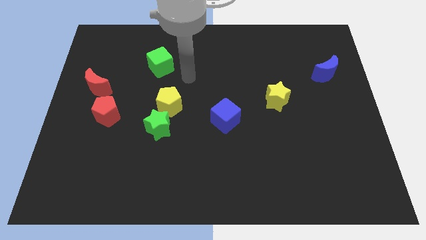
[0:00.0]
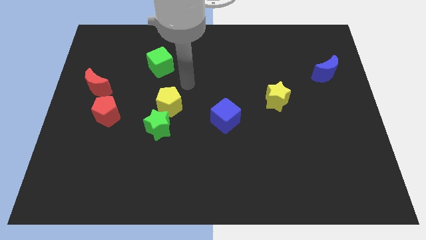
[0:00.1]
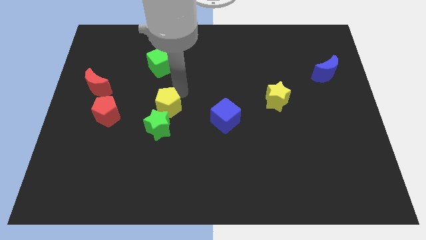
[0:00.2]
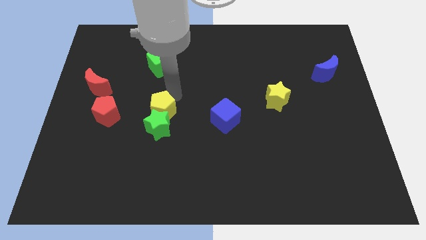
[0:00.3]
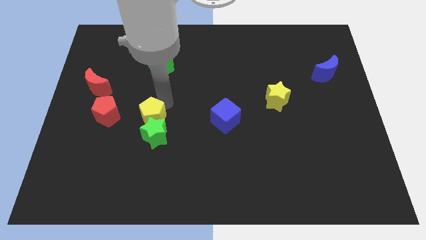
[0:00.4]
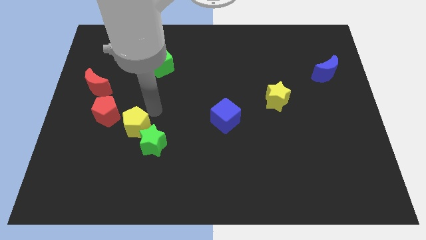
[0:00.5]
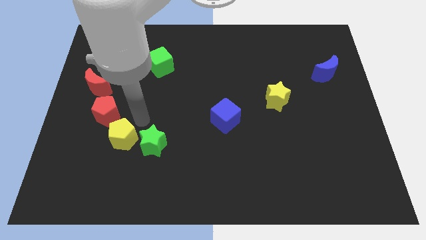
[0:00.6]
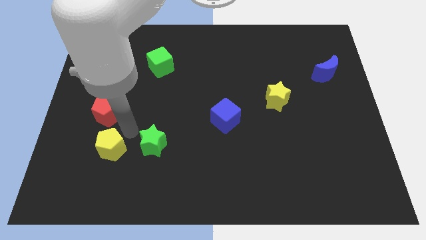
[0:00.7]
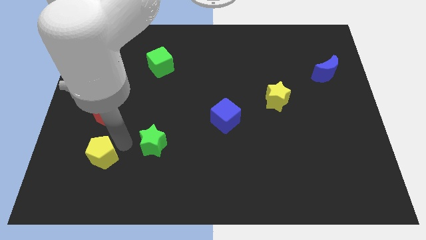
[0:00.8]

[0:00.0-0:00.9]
pull the green star apart from the yellow pentagon

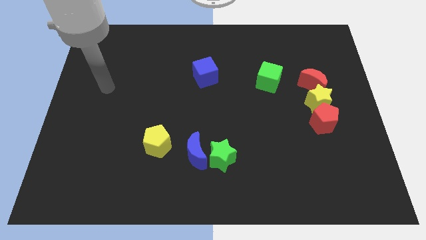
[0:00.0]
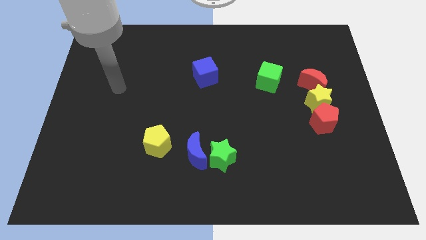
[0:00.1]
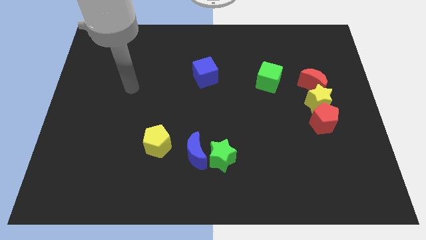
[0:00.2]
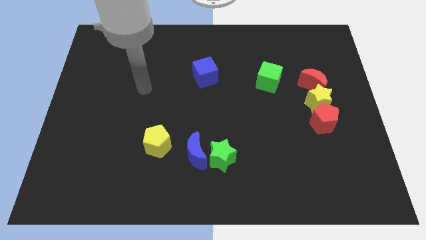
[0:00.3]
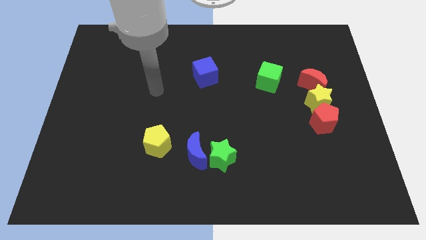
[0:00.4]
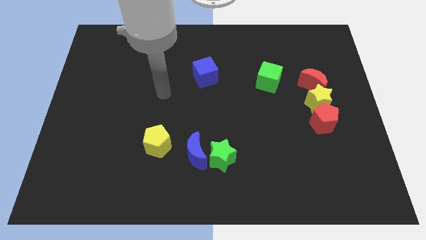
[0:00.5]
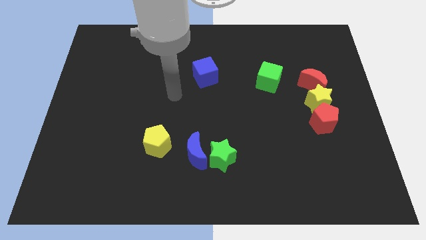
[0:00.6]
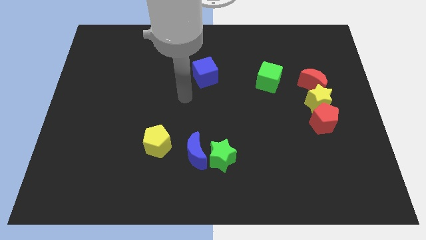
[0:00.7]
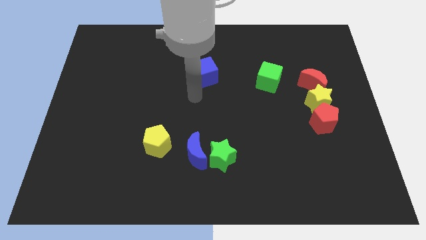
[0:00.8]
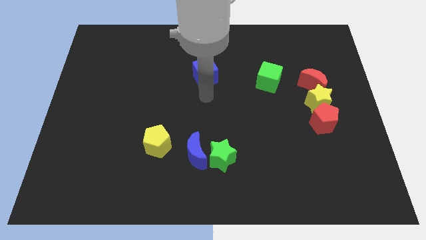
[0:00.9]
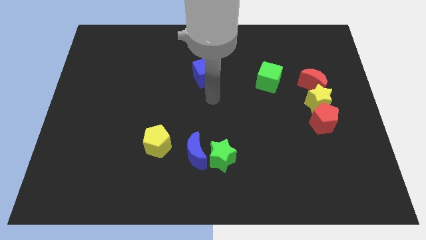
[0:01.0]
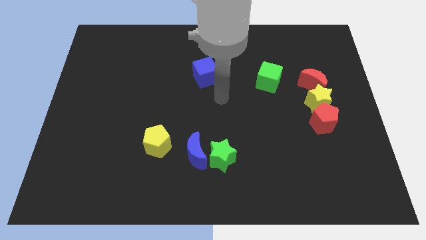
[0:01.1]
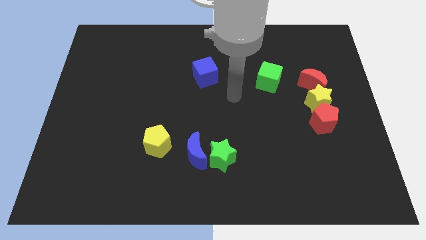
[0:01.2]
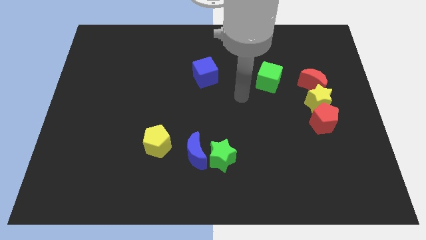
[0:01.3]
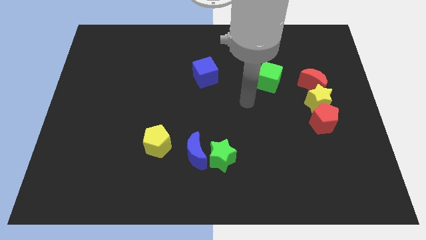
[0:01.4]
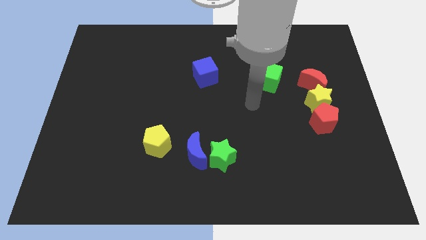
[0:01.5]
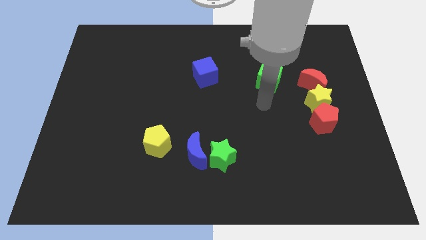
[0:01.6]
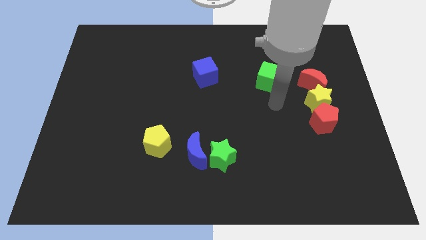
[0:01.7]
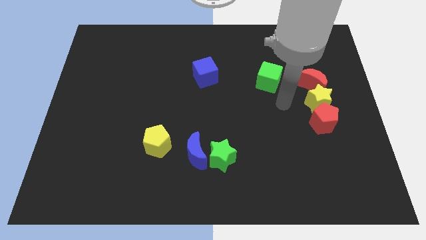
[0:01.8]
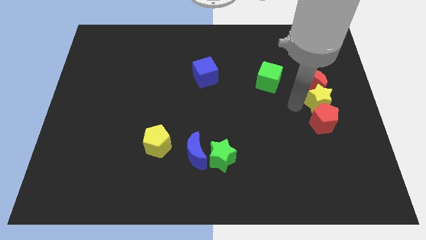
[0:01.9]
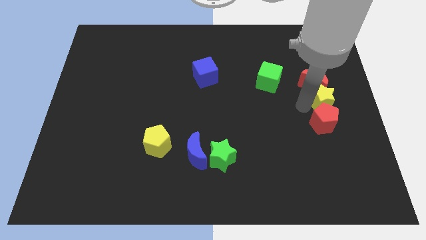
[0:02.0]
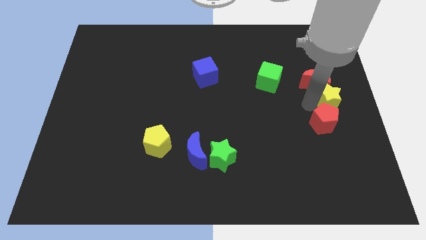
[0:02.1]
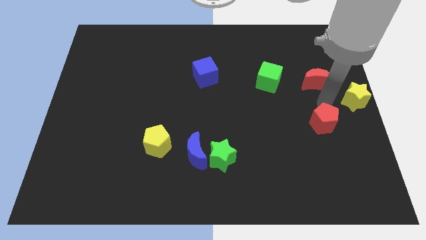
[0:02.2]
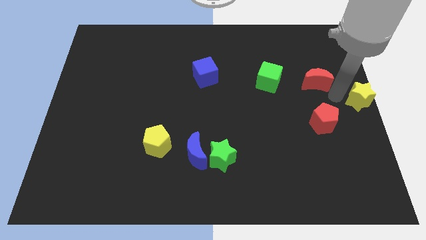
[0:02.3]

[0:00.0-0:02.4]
separate the red moon from the yellow star

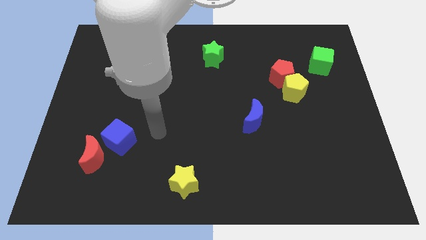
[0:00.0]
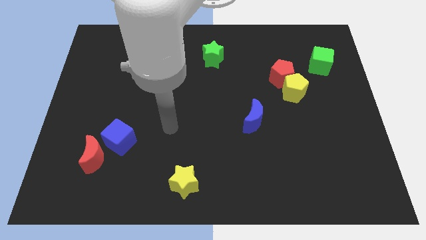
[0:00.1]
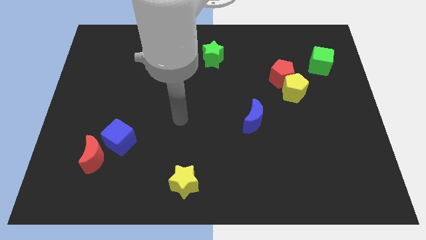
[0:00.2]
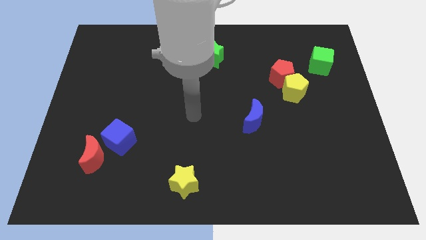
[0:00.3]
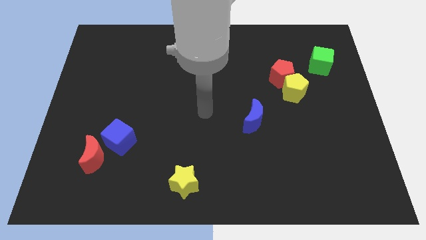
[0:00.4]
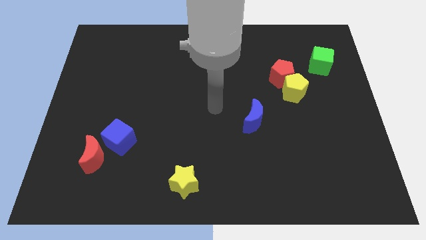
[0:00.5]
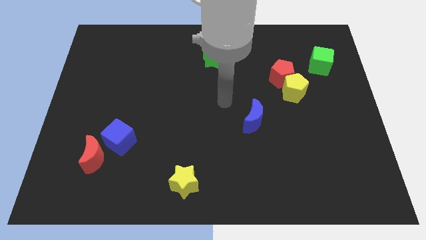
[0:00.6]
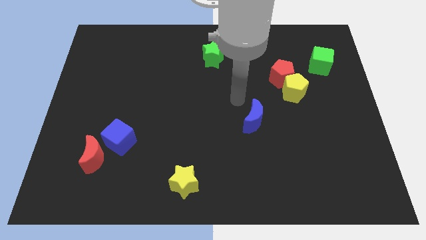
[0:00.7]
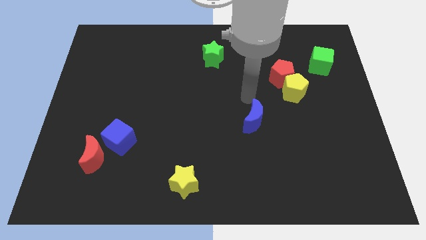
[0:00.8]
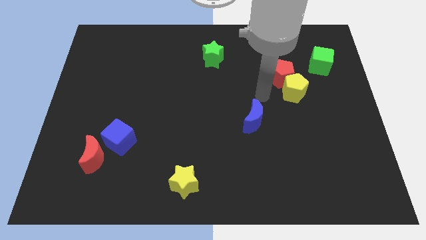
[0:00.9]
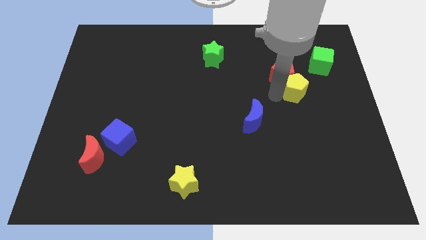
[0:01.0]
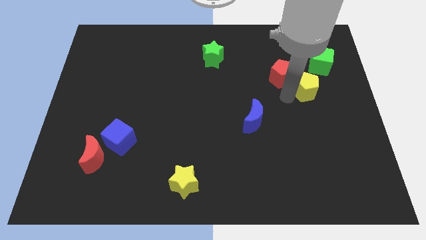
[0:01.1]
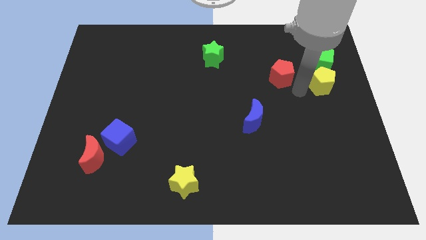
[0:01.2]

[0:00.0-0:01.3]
separate the red pentagon from the yellow pentagon

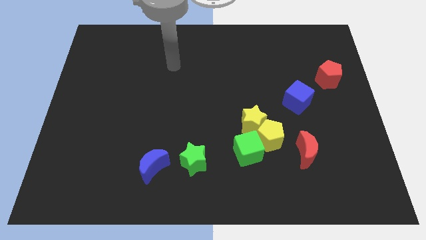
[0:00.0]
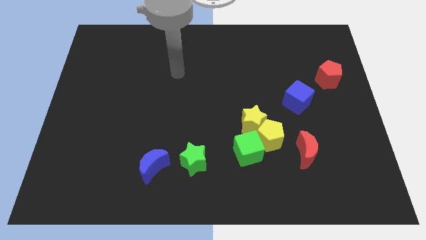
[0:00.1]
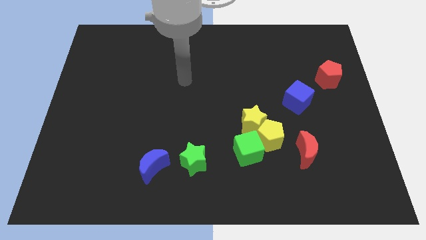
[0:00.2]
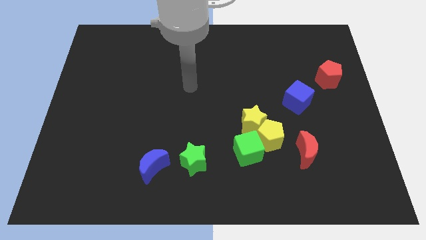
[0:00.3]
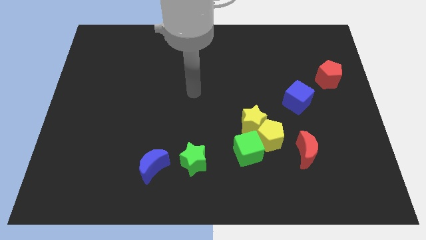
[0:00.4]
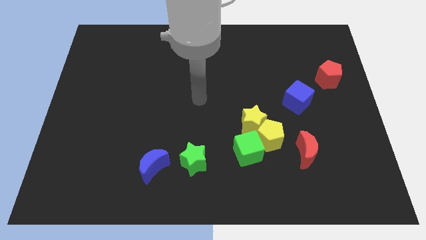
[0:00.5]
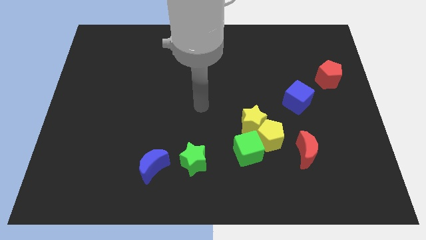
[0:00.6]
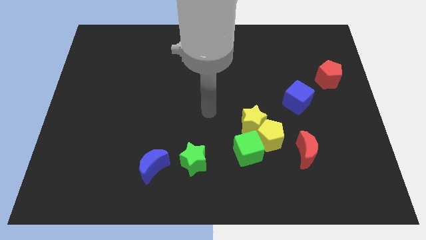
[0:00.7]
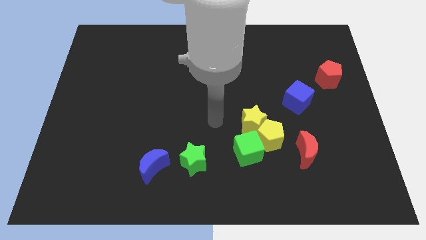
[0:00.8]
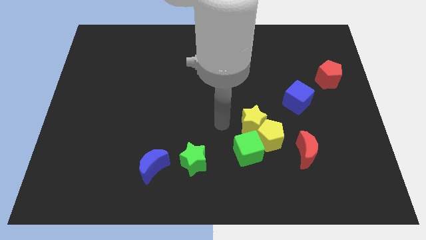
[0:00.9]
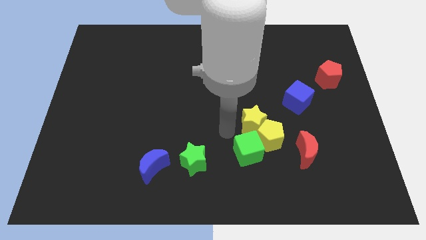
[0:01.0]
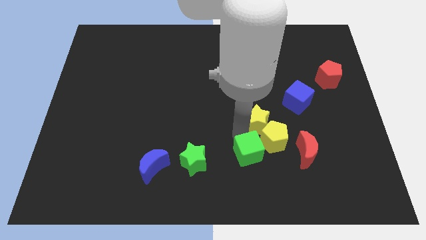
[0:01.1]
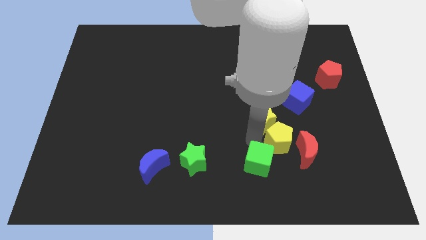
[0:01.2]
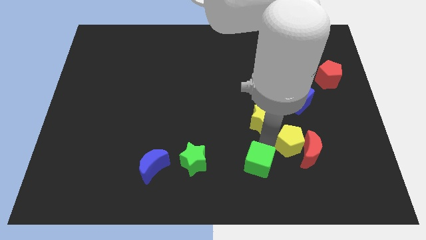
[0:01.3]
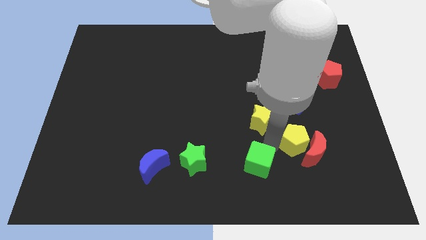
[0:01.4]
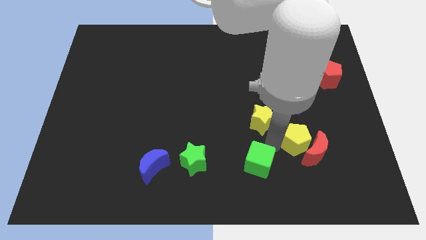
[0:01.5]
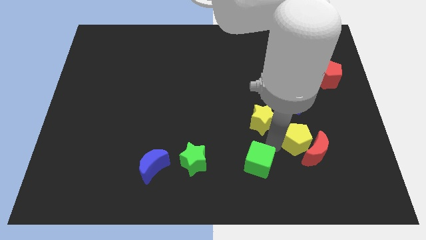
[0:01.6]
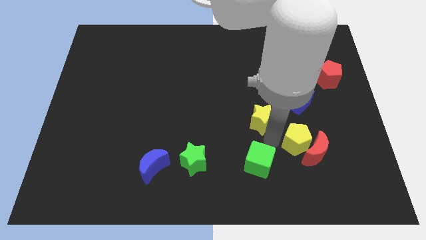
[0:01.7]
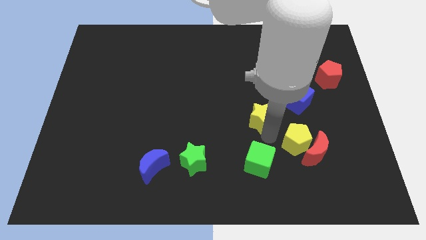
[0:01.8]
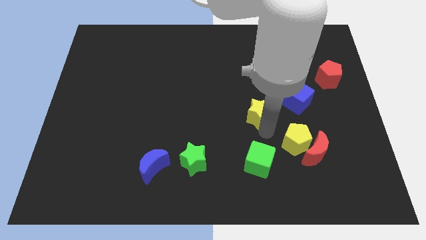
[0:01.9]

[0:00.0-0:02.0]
move the yellow star away from the yellow pentagon and green cube

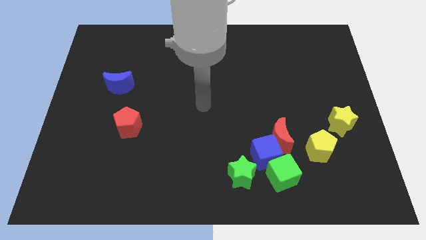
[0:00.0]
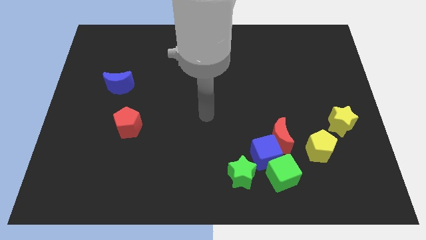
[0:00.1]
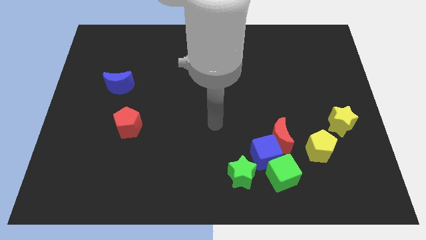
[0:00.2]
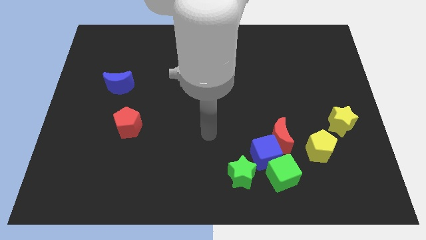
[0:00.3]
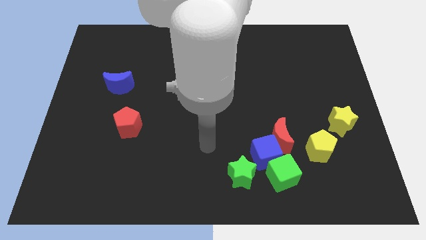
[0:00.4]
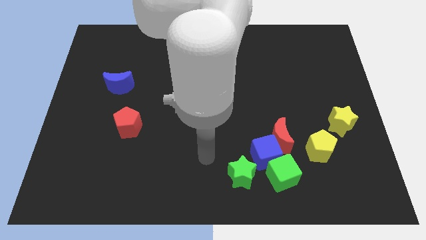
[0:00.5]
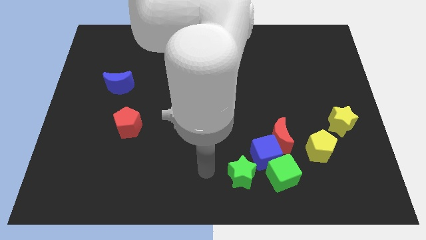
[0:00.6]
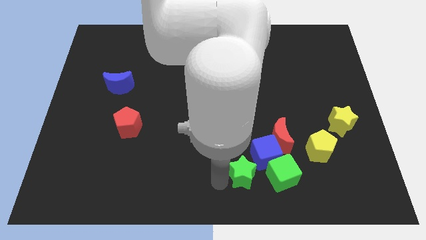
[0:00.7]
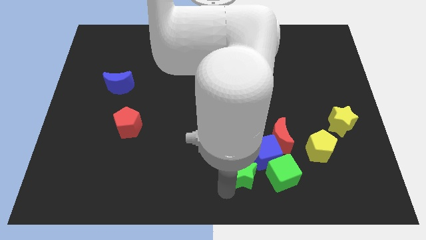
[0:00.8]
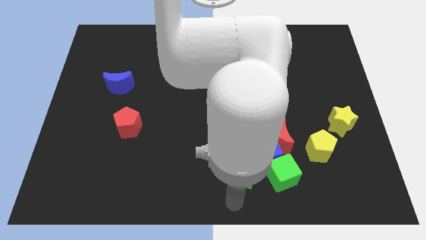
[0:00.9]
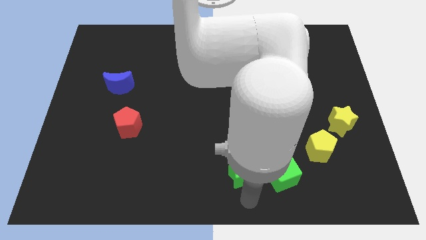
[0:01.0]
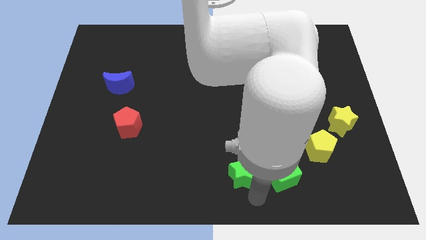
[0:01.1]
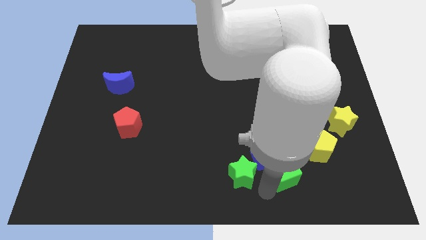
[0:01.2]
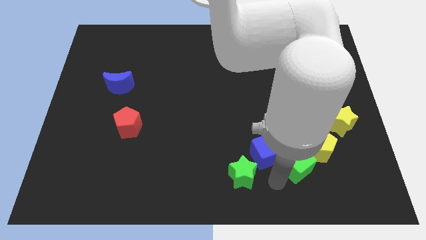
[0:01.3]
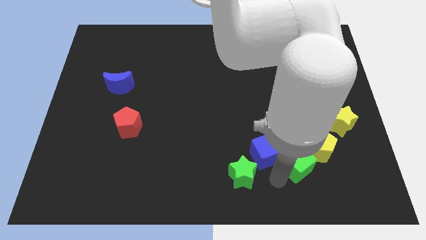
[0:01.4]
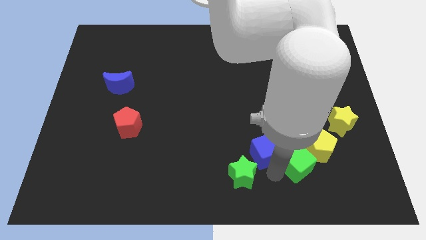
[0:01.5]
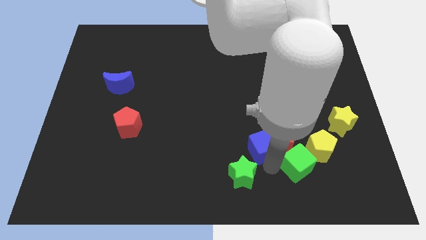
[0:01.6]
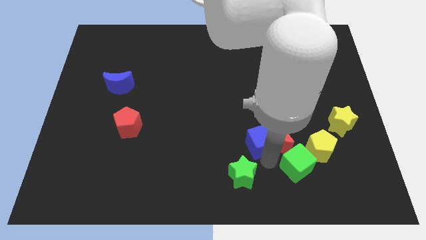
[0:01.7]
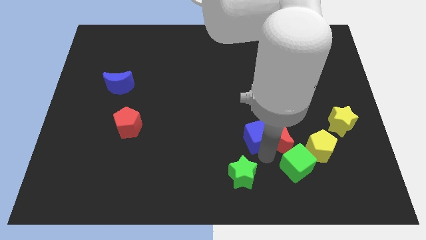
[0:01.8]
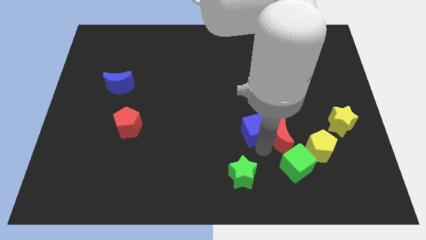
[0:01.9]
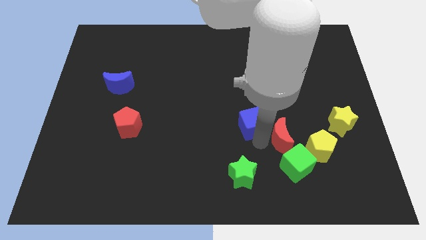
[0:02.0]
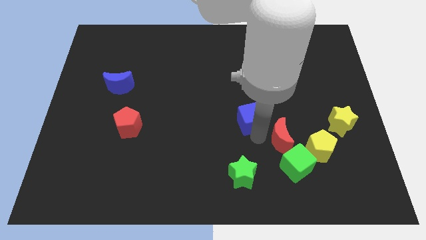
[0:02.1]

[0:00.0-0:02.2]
separate the blue cube from the group of blocks

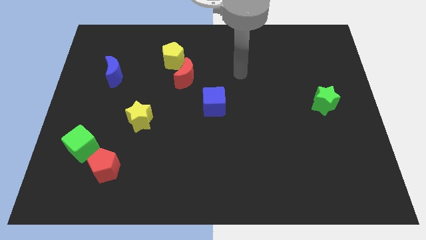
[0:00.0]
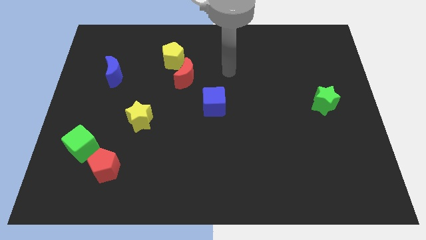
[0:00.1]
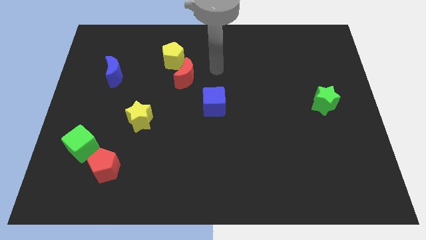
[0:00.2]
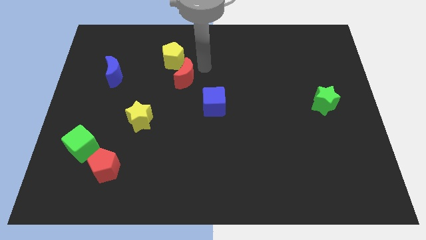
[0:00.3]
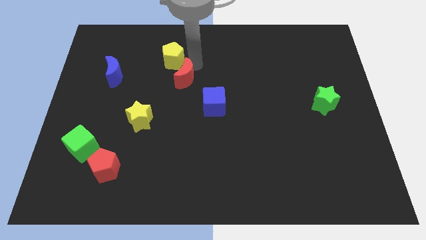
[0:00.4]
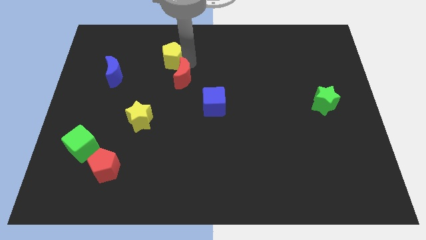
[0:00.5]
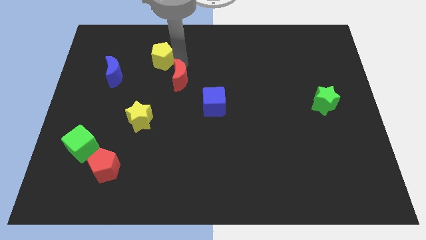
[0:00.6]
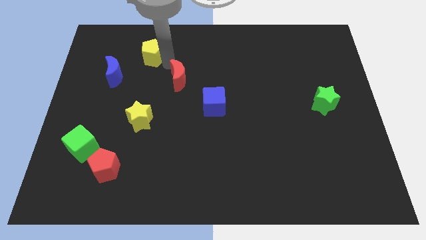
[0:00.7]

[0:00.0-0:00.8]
move the red moon away from the yellow pentagon
